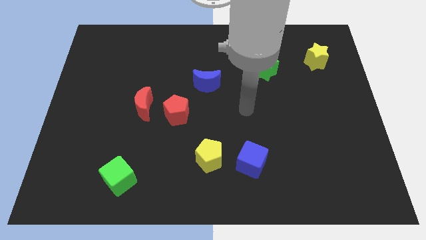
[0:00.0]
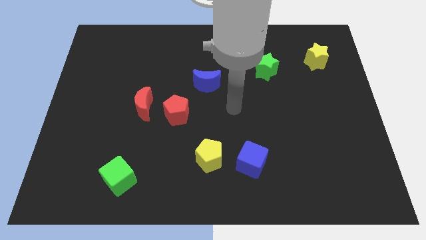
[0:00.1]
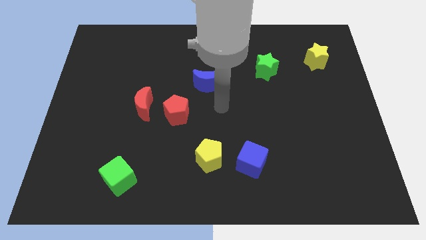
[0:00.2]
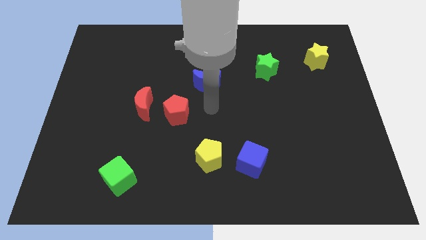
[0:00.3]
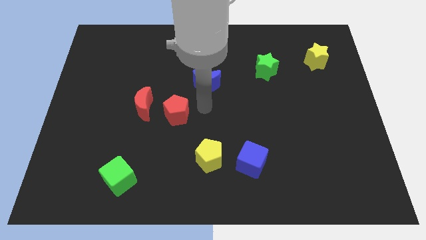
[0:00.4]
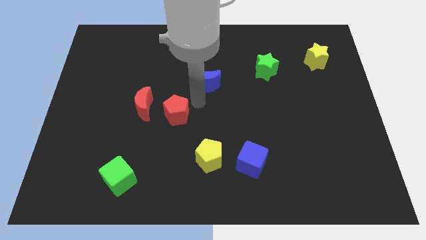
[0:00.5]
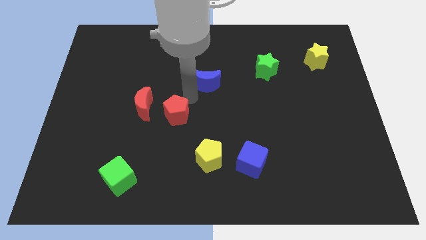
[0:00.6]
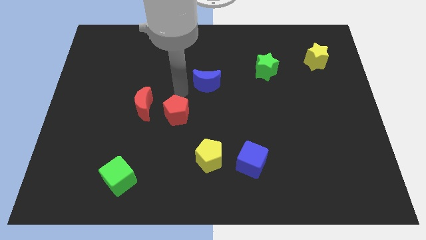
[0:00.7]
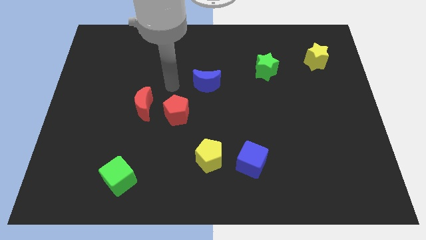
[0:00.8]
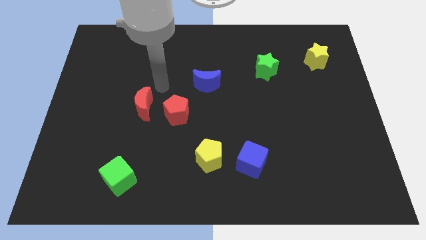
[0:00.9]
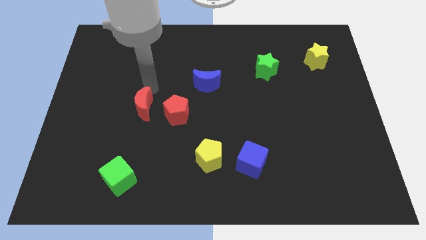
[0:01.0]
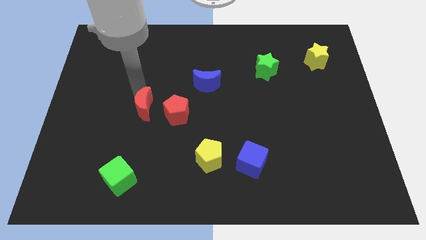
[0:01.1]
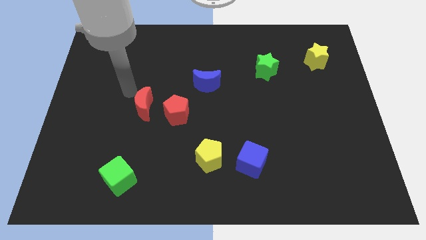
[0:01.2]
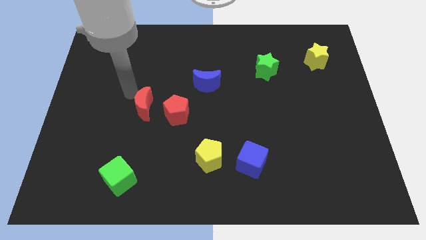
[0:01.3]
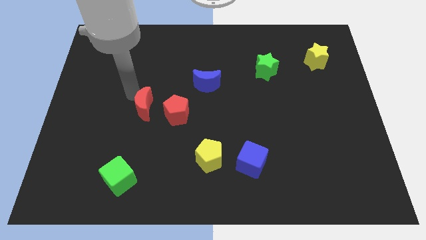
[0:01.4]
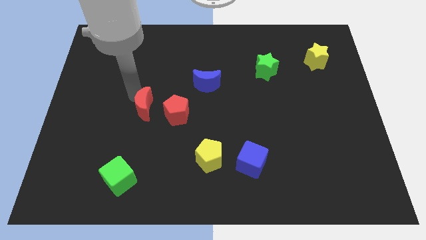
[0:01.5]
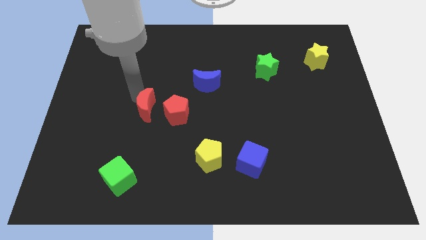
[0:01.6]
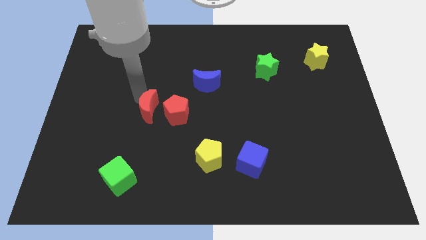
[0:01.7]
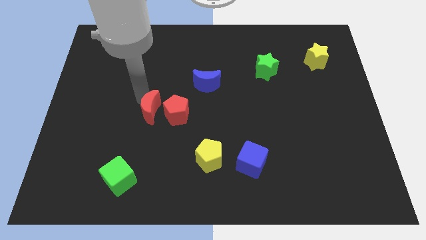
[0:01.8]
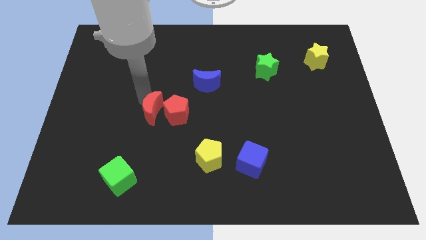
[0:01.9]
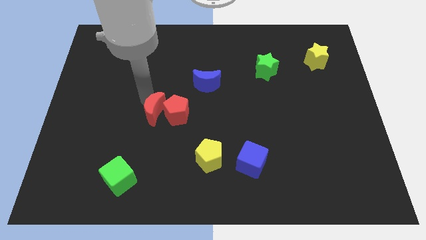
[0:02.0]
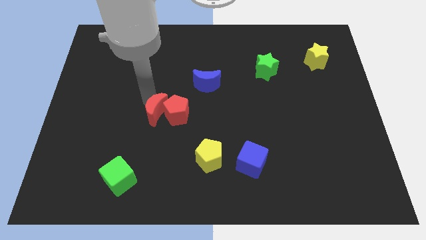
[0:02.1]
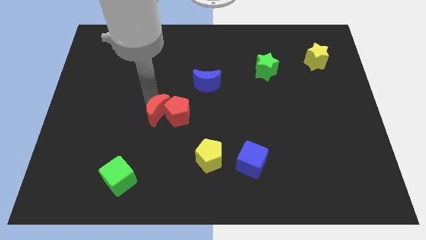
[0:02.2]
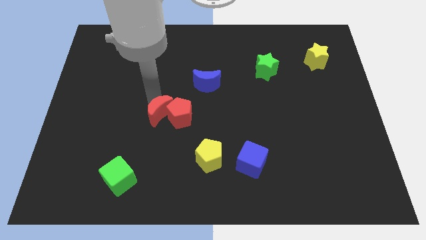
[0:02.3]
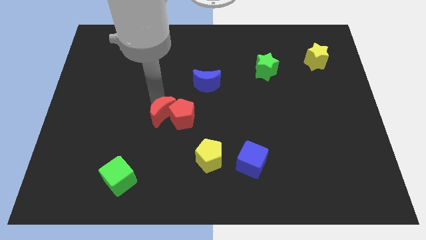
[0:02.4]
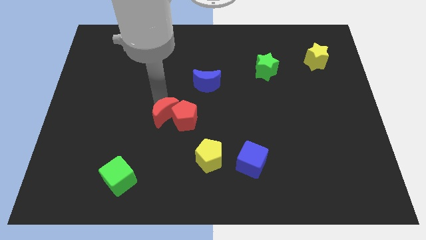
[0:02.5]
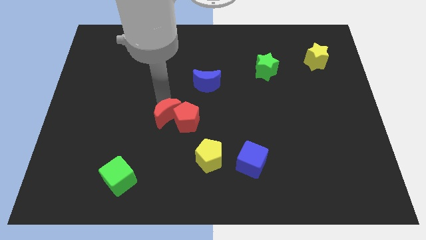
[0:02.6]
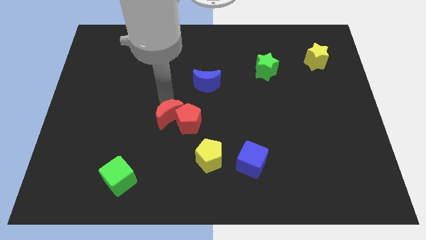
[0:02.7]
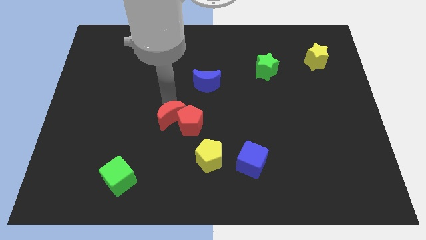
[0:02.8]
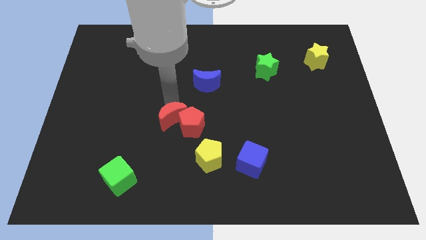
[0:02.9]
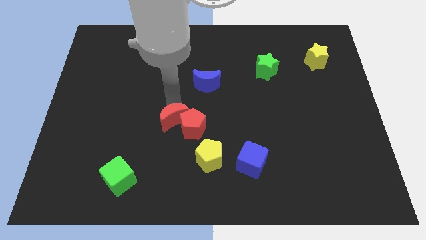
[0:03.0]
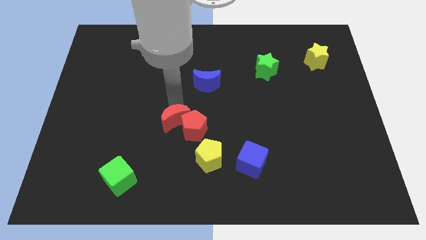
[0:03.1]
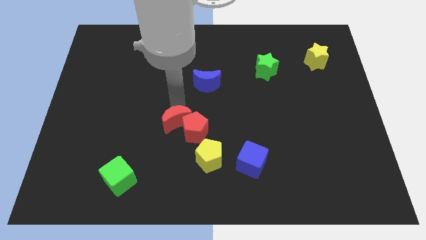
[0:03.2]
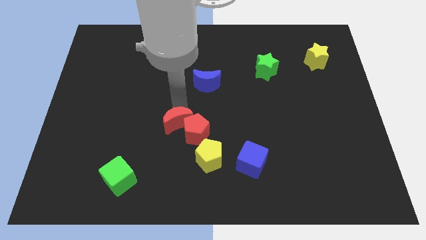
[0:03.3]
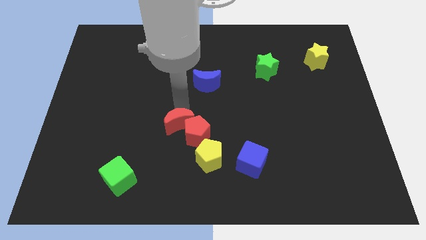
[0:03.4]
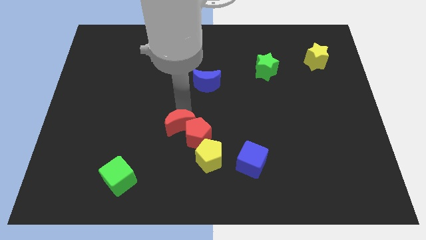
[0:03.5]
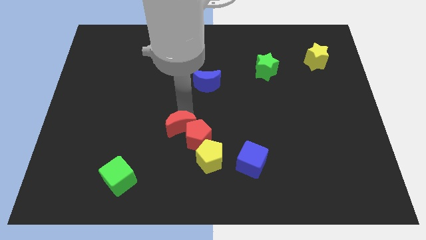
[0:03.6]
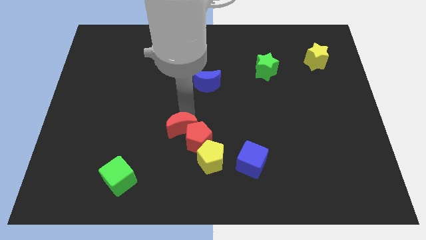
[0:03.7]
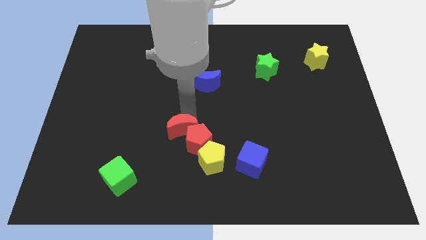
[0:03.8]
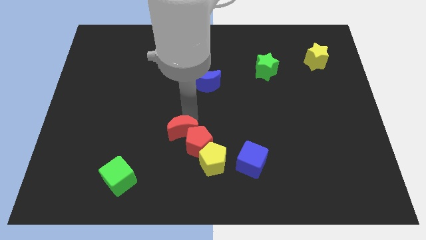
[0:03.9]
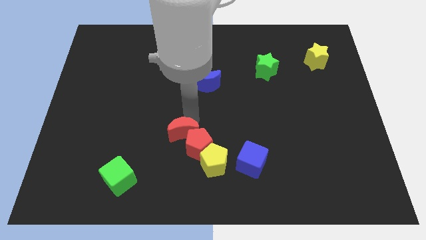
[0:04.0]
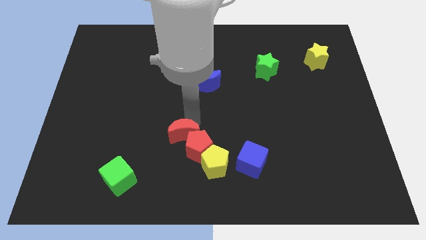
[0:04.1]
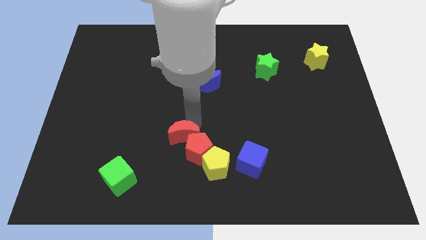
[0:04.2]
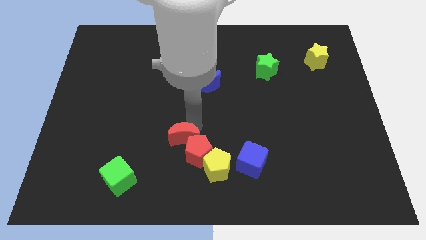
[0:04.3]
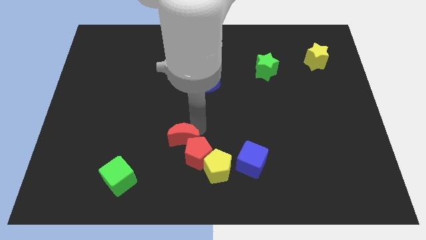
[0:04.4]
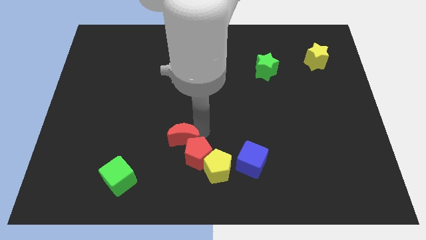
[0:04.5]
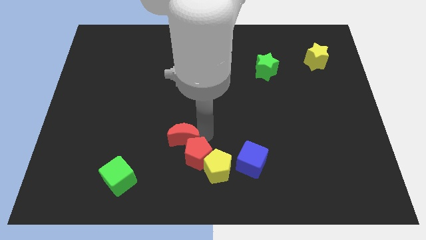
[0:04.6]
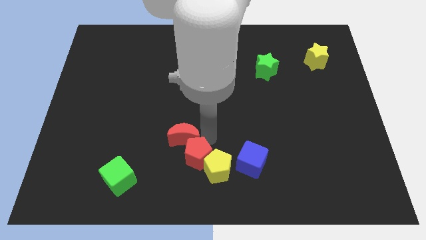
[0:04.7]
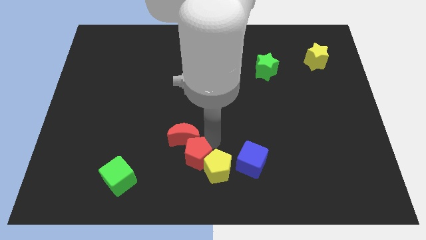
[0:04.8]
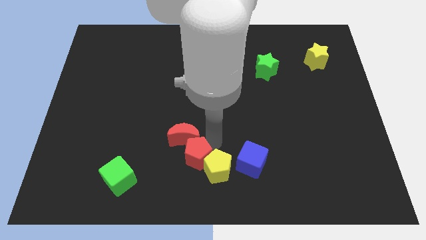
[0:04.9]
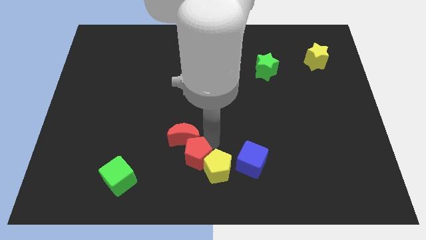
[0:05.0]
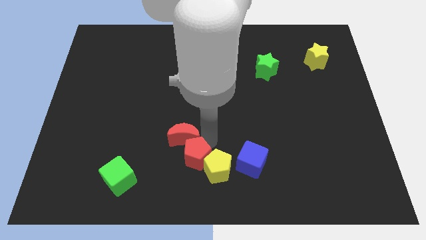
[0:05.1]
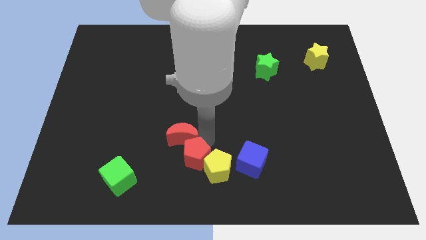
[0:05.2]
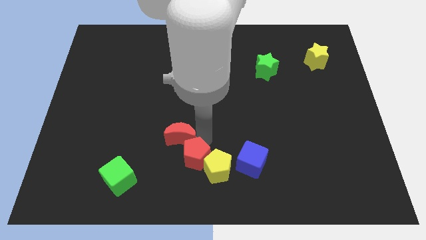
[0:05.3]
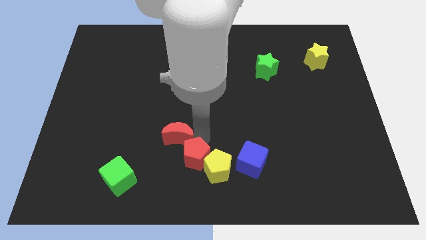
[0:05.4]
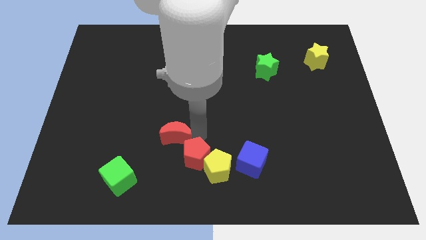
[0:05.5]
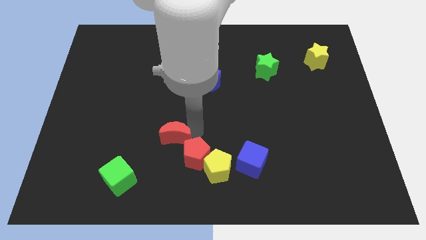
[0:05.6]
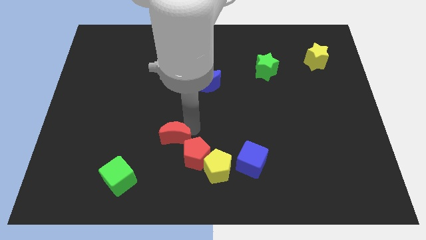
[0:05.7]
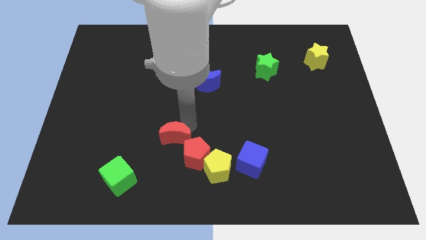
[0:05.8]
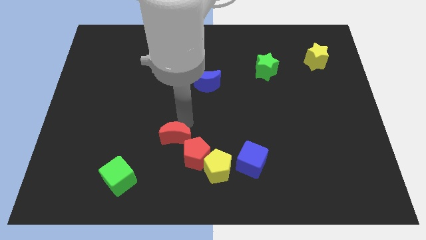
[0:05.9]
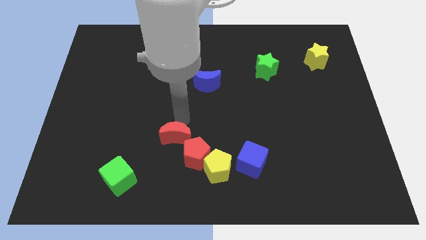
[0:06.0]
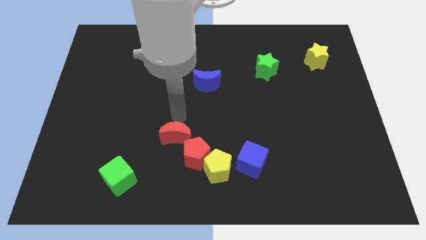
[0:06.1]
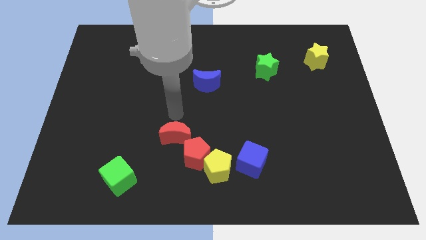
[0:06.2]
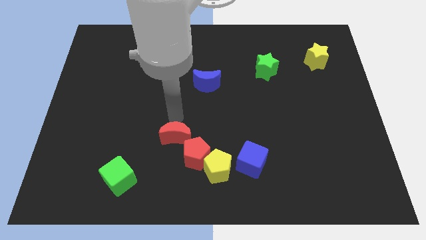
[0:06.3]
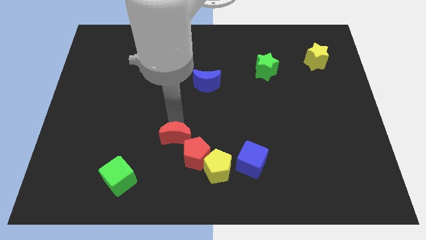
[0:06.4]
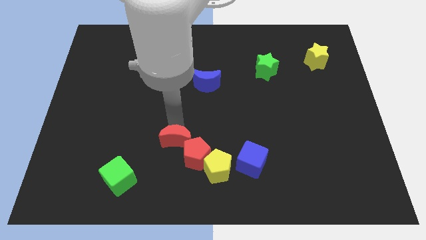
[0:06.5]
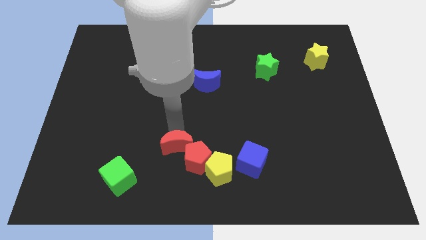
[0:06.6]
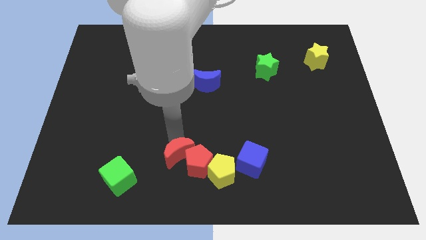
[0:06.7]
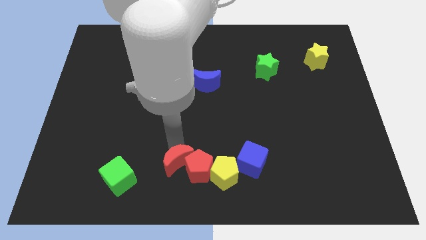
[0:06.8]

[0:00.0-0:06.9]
slide the red moon to the bottom side

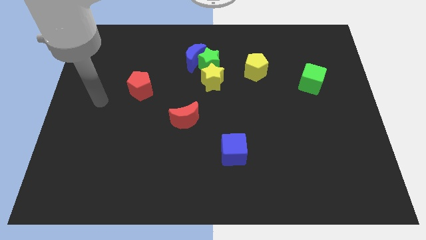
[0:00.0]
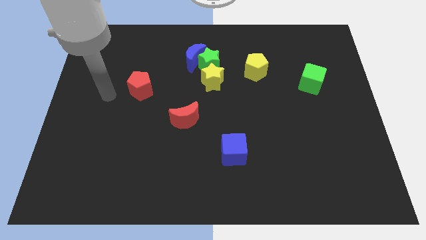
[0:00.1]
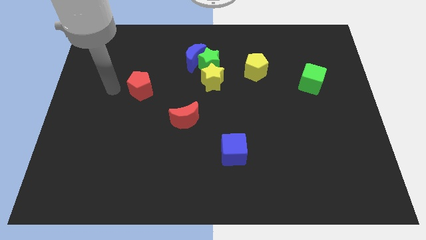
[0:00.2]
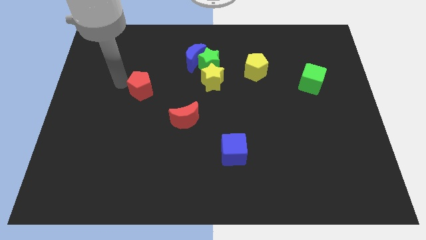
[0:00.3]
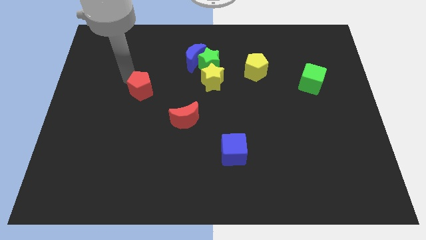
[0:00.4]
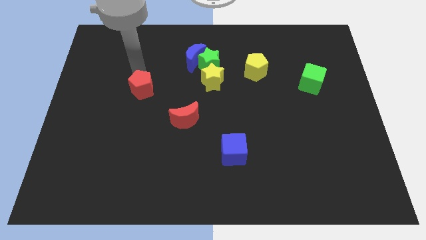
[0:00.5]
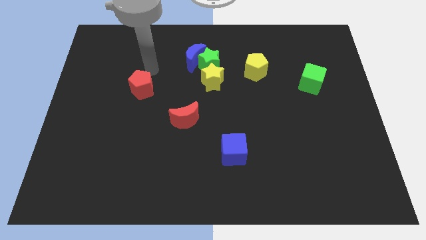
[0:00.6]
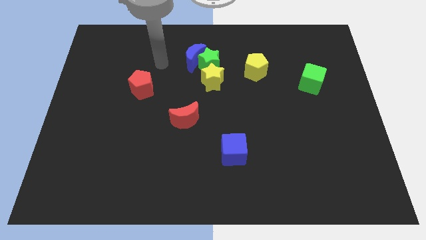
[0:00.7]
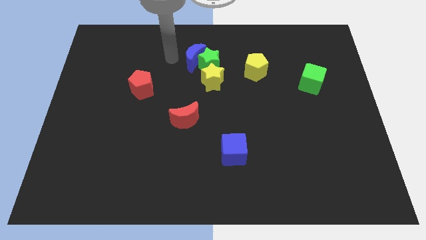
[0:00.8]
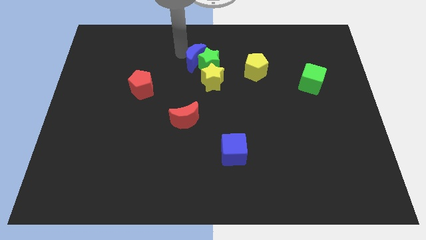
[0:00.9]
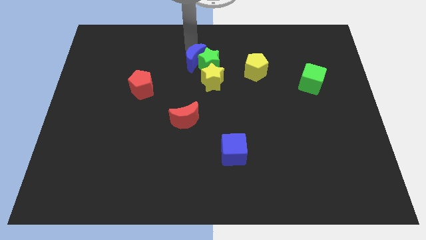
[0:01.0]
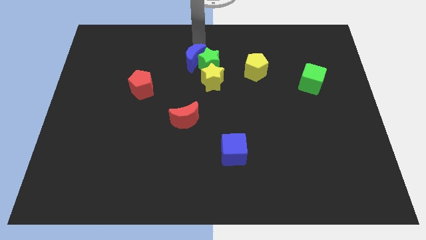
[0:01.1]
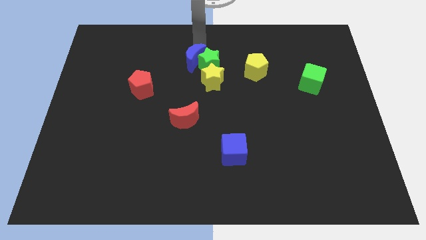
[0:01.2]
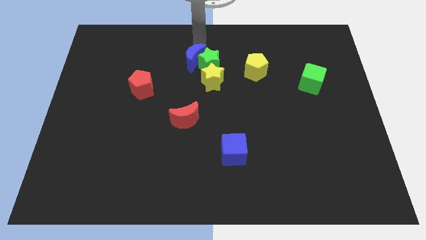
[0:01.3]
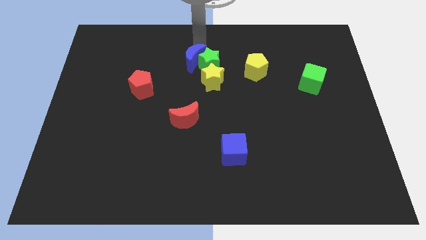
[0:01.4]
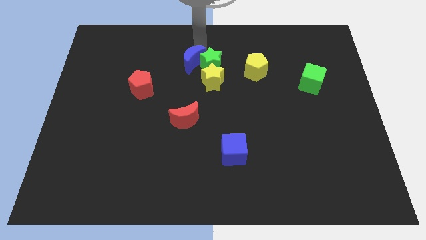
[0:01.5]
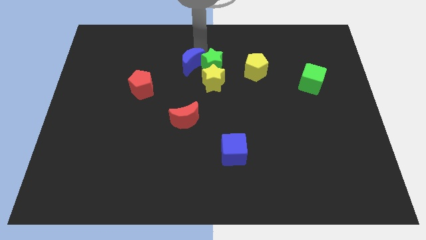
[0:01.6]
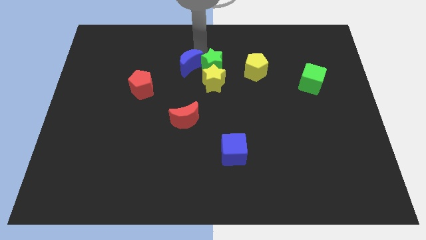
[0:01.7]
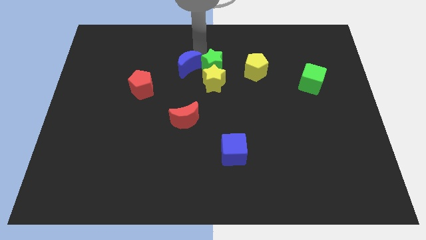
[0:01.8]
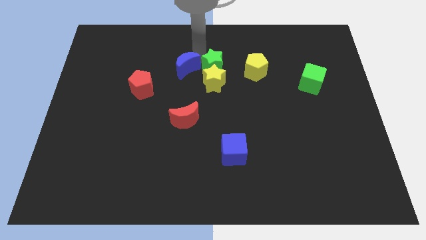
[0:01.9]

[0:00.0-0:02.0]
slide the blue moon to the center
